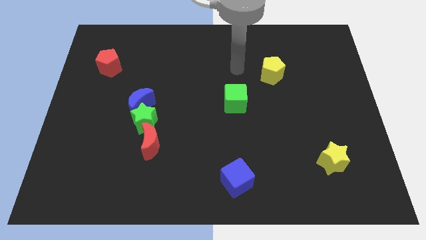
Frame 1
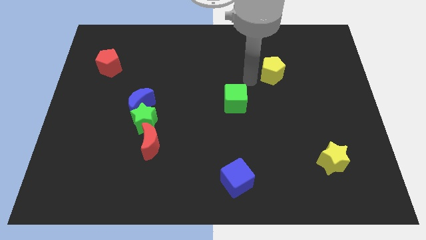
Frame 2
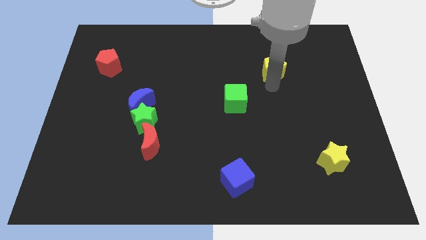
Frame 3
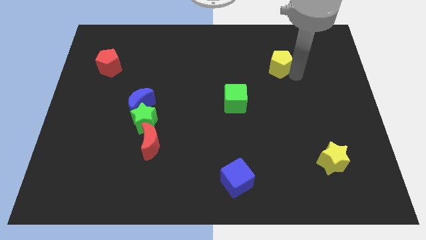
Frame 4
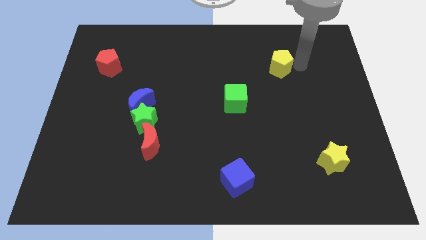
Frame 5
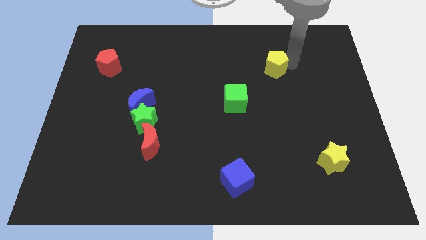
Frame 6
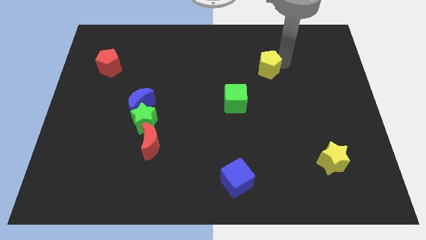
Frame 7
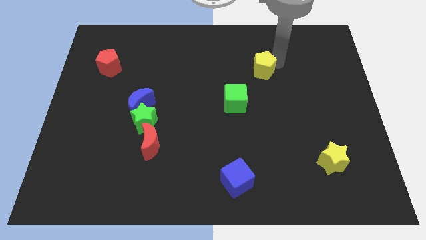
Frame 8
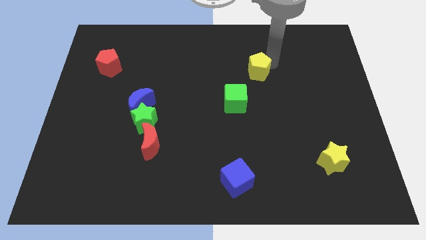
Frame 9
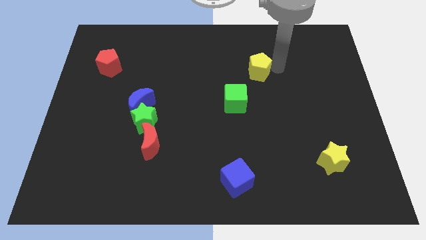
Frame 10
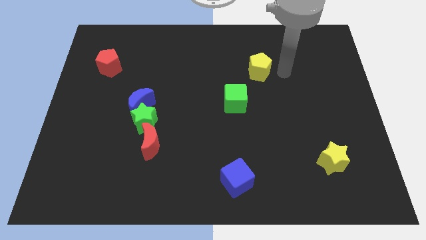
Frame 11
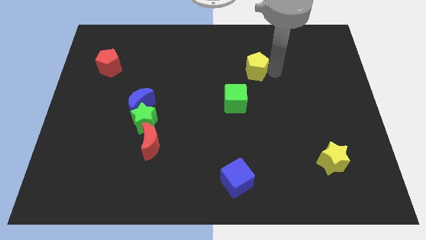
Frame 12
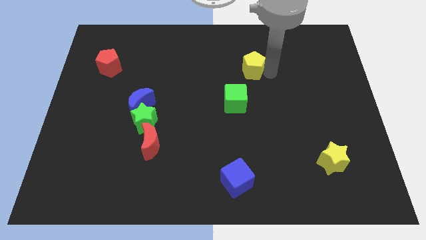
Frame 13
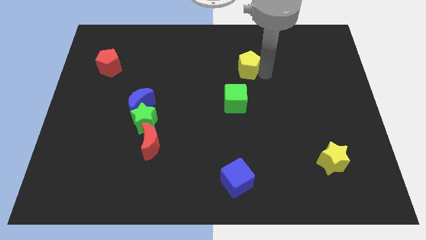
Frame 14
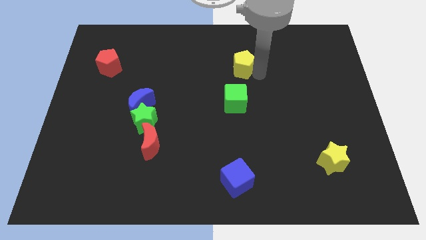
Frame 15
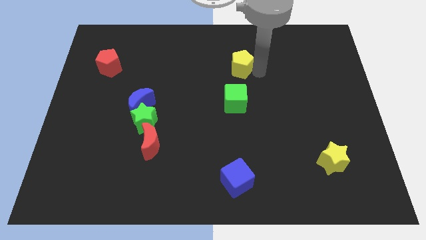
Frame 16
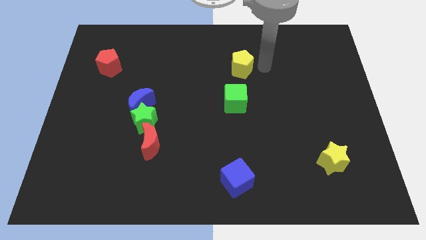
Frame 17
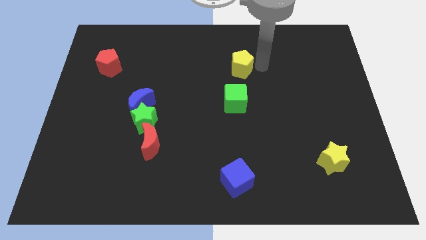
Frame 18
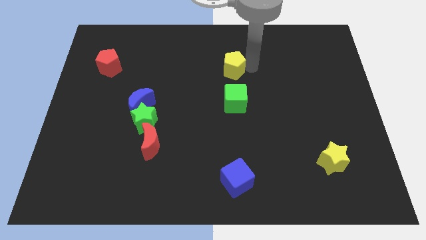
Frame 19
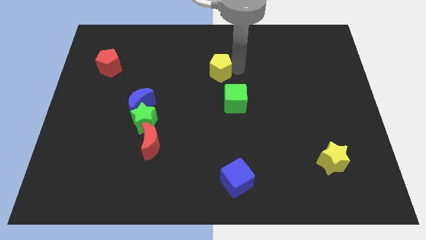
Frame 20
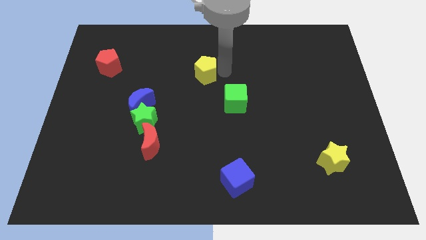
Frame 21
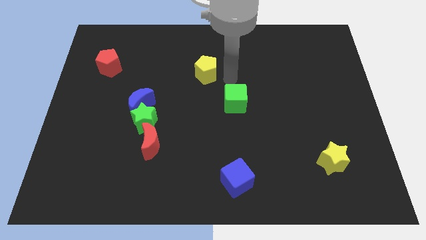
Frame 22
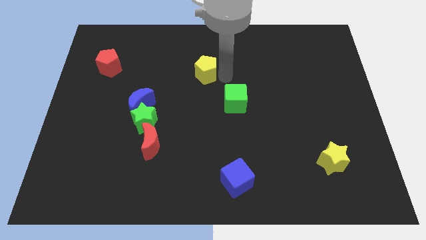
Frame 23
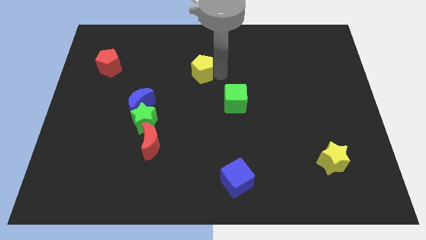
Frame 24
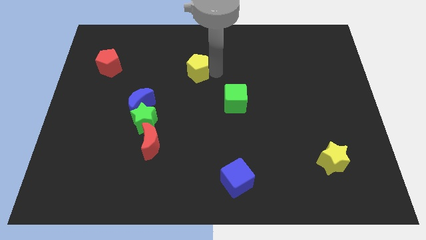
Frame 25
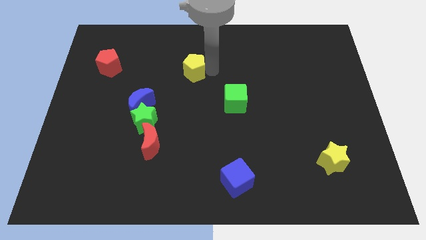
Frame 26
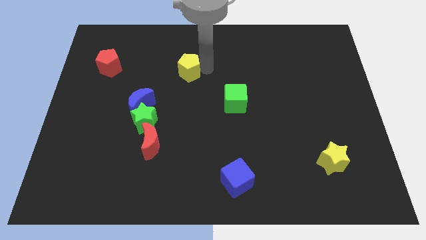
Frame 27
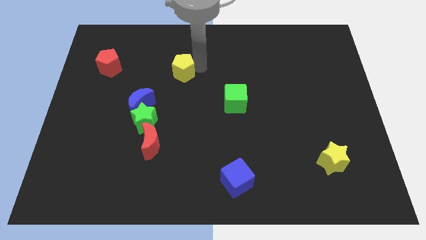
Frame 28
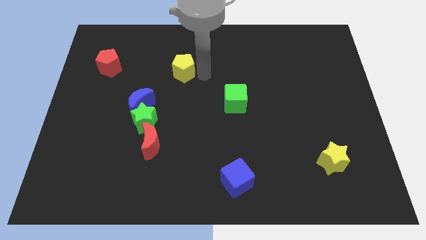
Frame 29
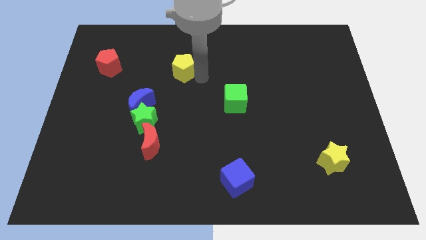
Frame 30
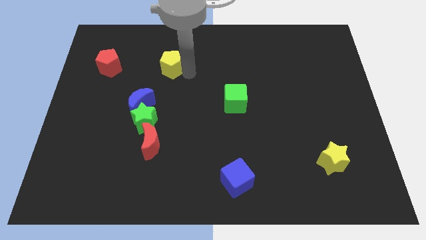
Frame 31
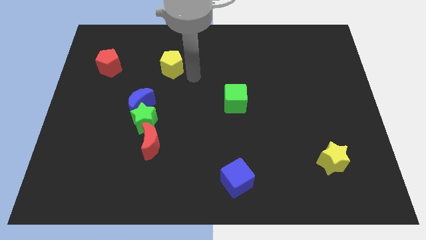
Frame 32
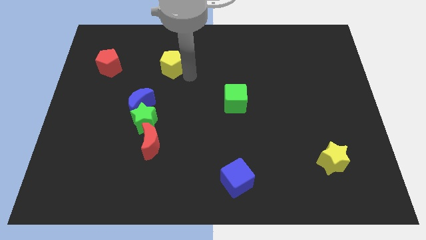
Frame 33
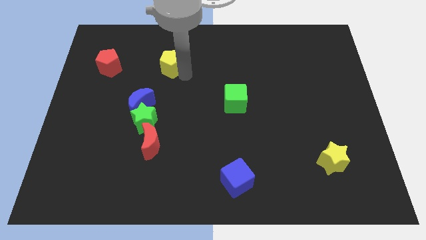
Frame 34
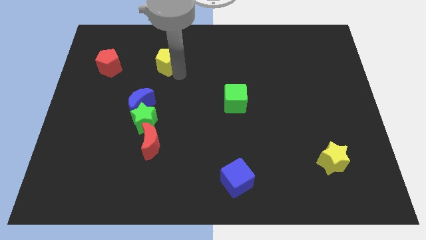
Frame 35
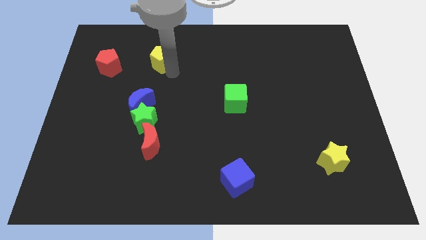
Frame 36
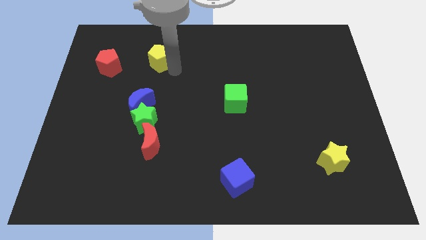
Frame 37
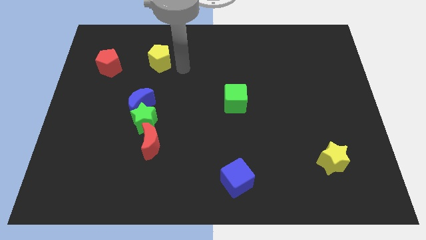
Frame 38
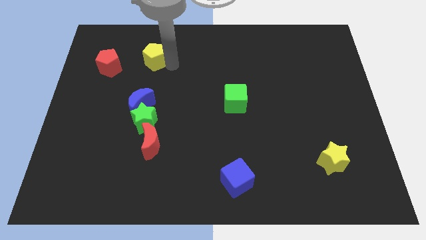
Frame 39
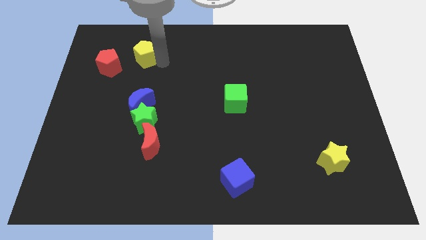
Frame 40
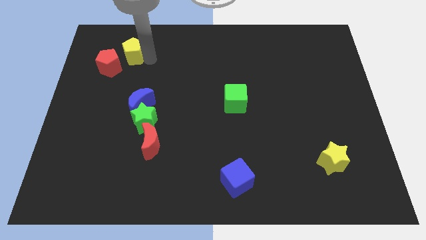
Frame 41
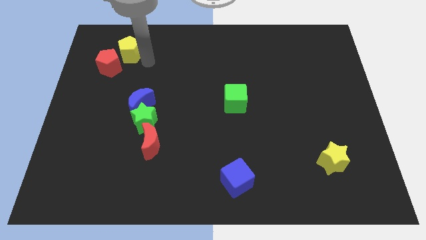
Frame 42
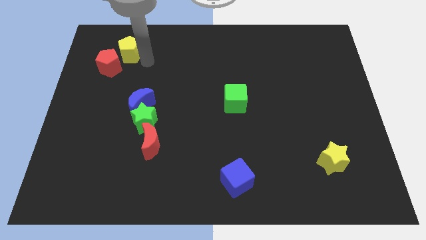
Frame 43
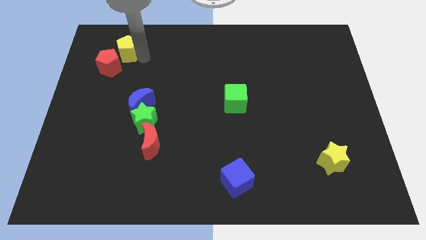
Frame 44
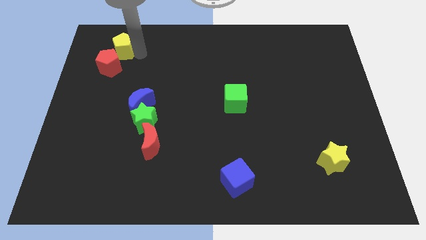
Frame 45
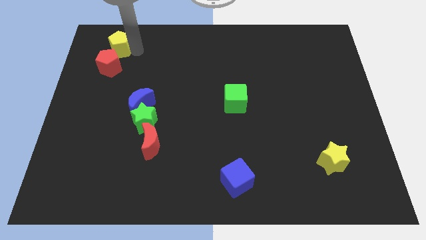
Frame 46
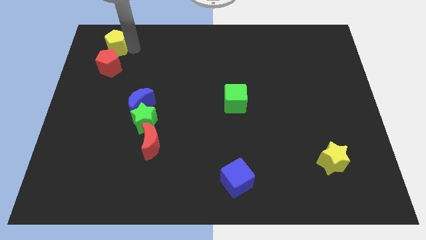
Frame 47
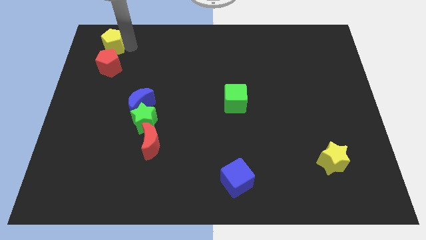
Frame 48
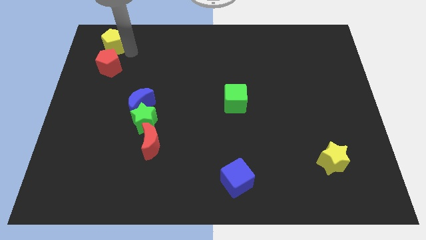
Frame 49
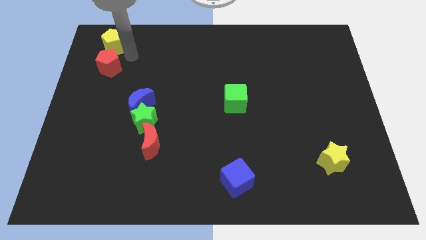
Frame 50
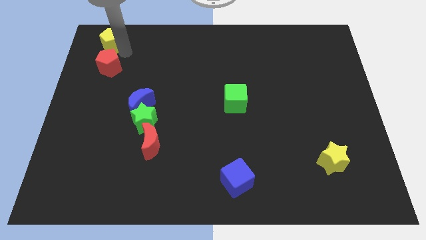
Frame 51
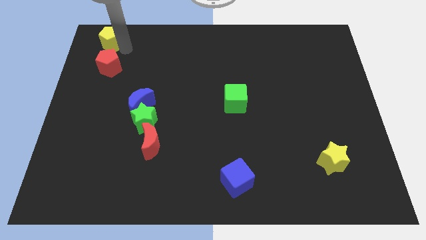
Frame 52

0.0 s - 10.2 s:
slide the yellow pentagon to the top left

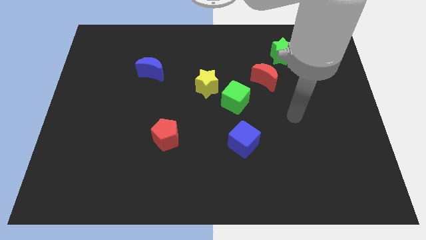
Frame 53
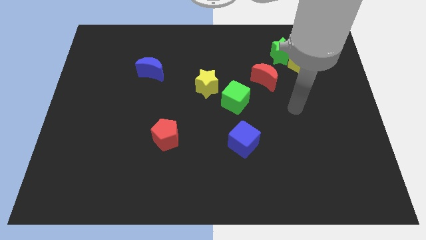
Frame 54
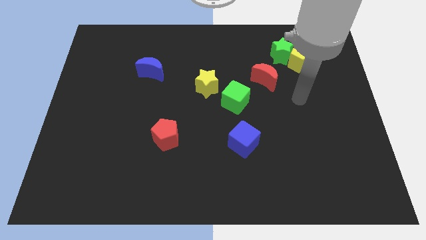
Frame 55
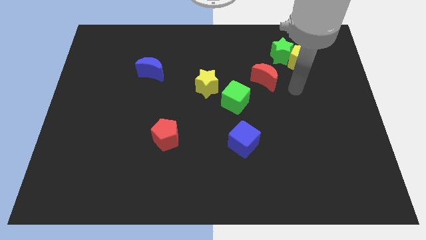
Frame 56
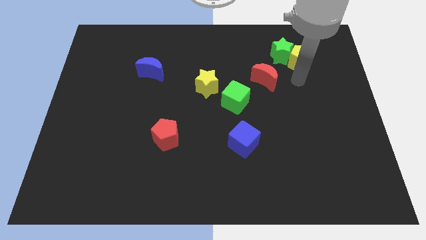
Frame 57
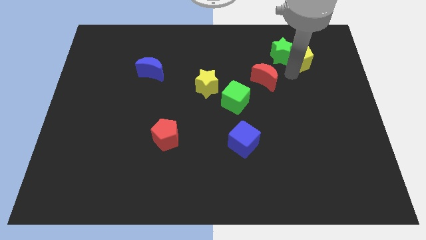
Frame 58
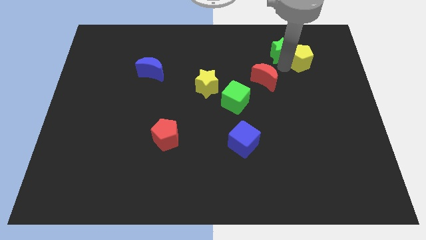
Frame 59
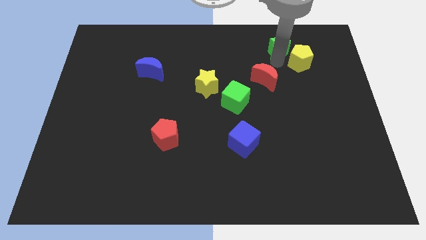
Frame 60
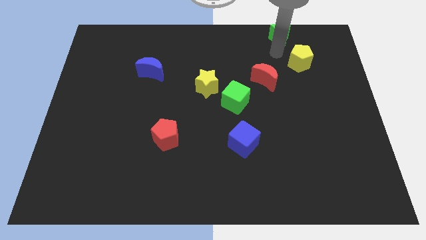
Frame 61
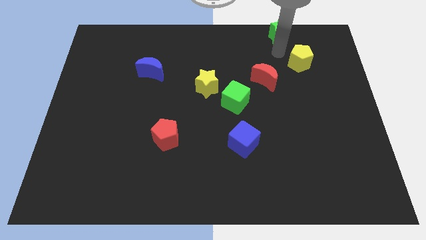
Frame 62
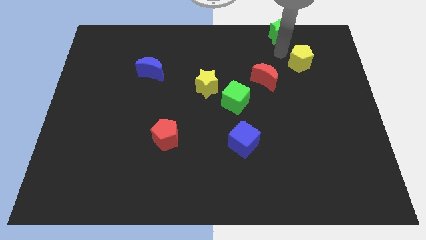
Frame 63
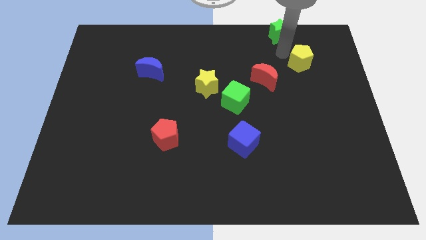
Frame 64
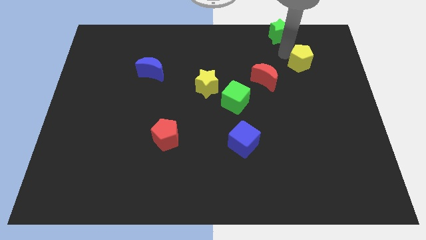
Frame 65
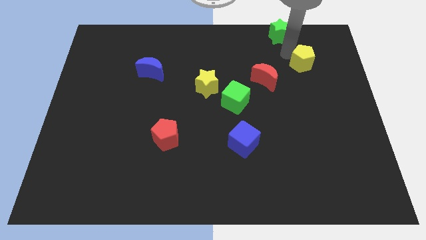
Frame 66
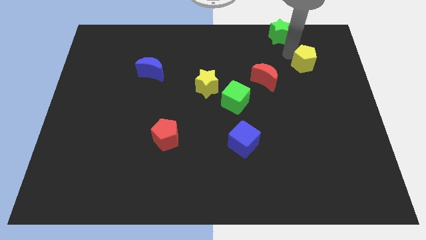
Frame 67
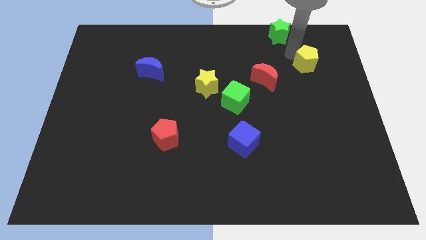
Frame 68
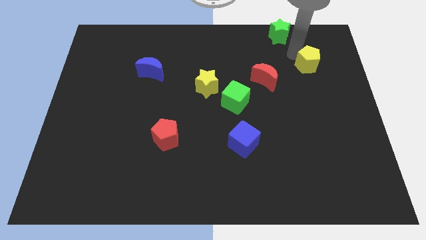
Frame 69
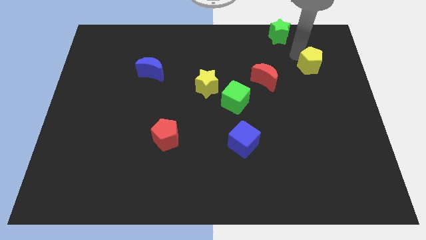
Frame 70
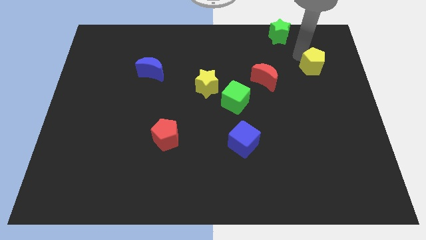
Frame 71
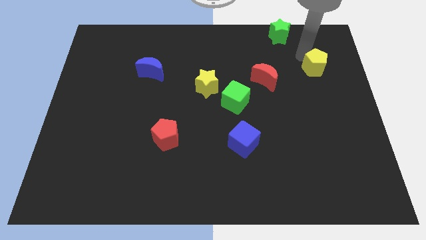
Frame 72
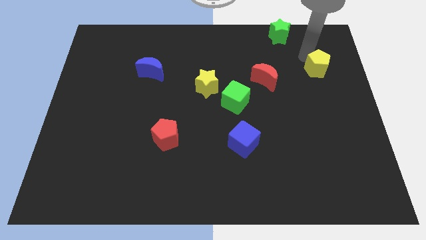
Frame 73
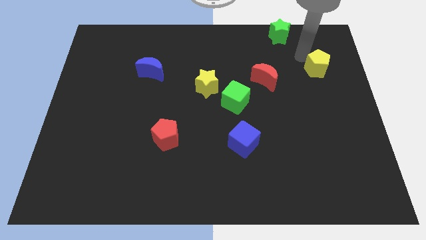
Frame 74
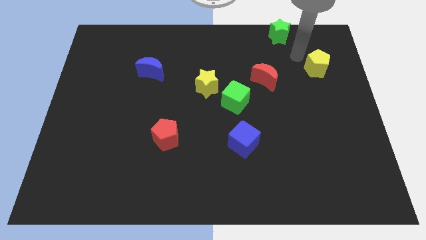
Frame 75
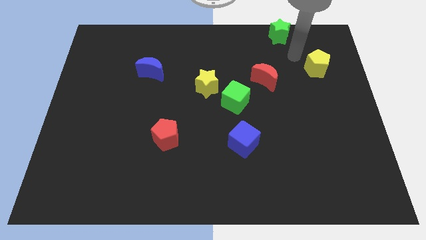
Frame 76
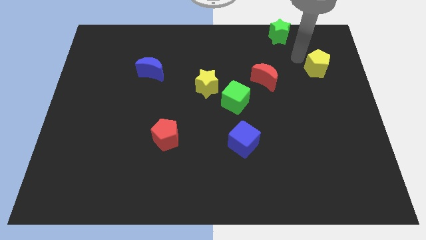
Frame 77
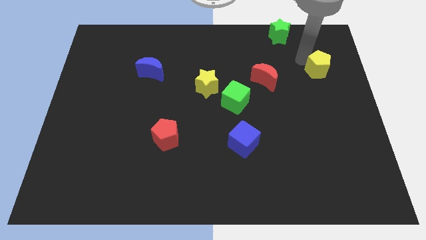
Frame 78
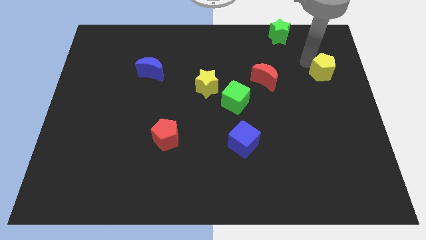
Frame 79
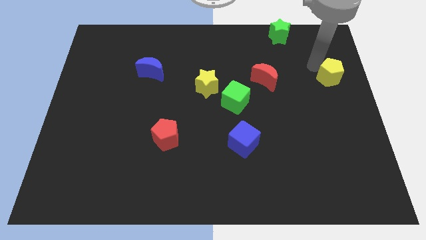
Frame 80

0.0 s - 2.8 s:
push the yellow pentagon to the center right
